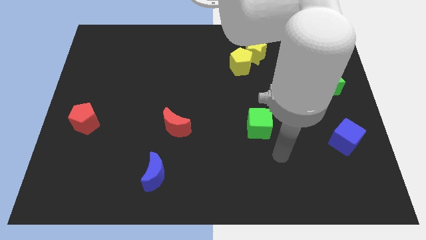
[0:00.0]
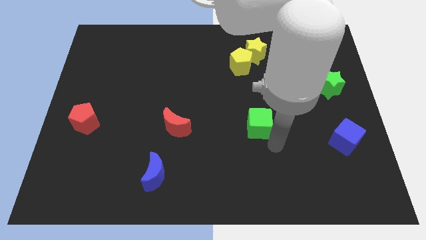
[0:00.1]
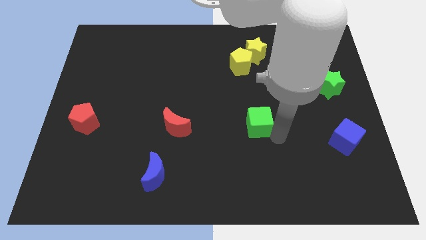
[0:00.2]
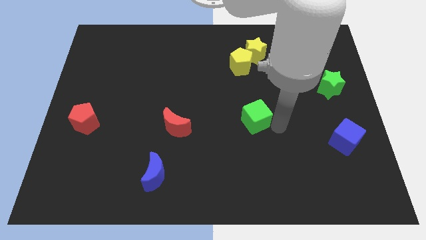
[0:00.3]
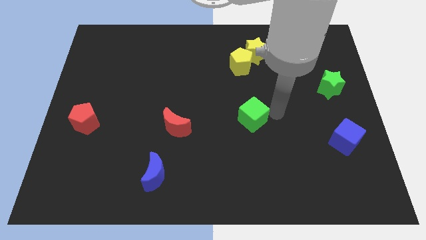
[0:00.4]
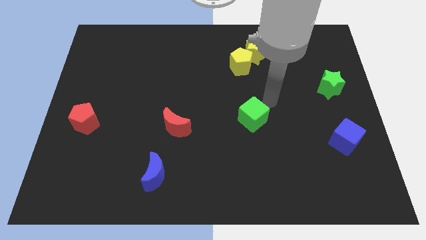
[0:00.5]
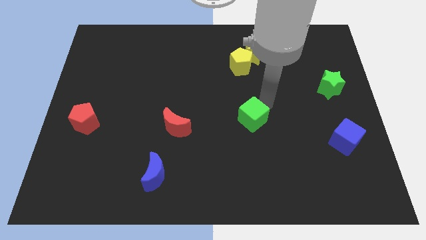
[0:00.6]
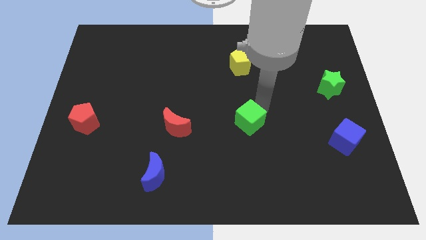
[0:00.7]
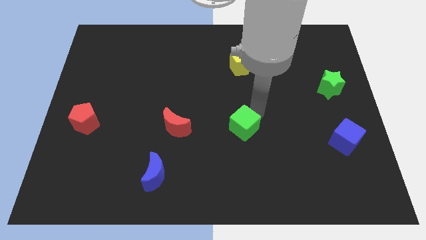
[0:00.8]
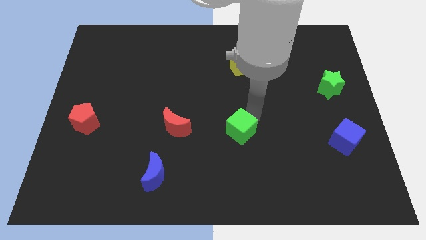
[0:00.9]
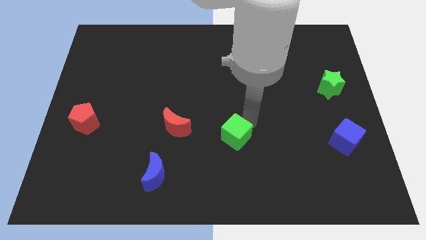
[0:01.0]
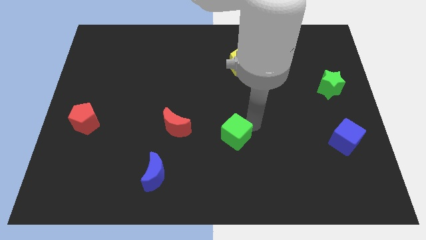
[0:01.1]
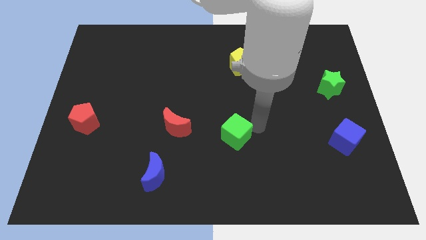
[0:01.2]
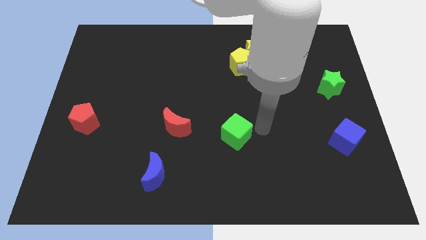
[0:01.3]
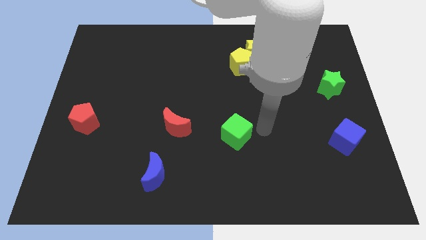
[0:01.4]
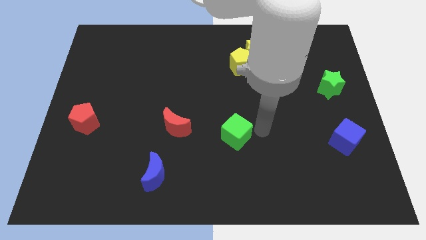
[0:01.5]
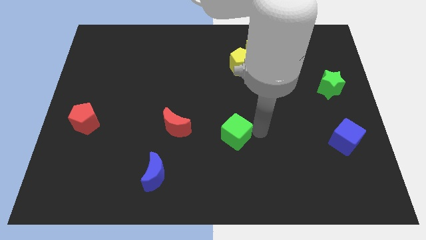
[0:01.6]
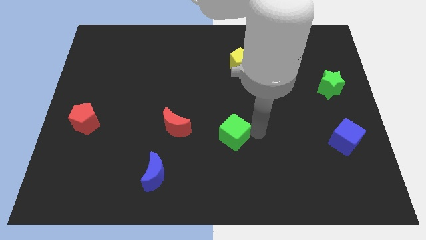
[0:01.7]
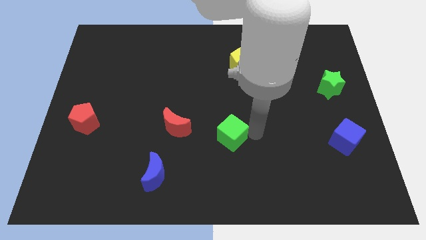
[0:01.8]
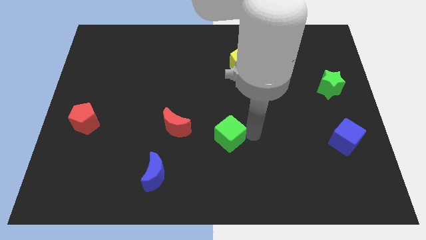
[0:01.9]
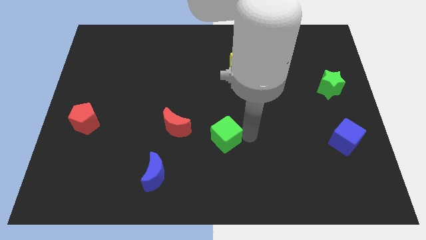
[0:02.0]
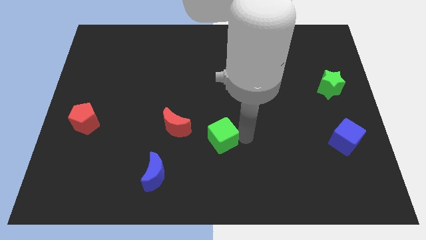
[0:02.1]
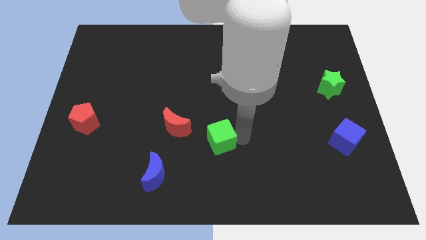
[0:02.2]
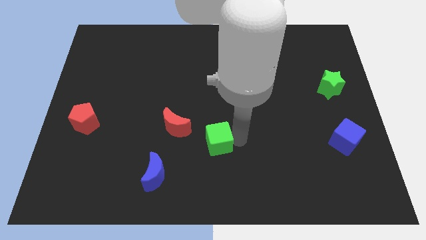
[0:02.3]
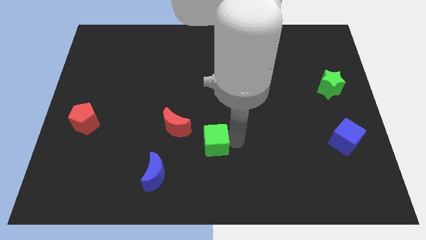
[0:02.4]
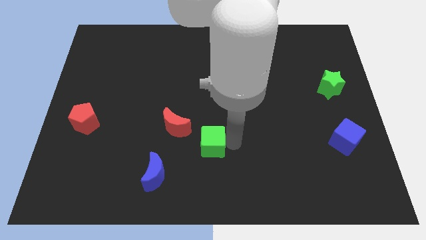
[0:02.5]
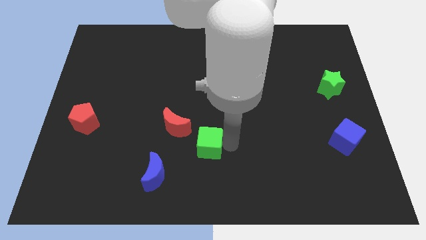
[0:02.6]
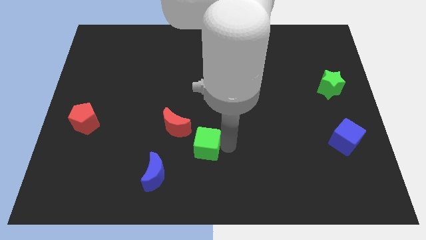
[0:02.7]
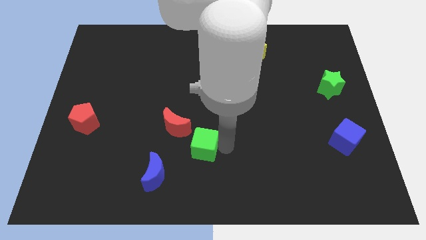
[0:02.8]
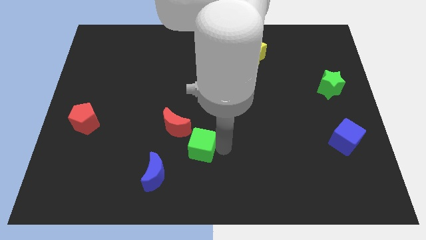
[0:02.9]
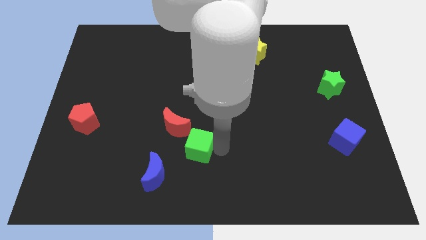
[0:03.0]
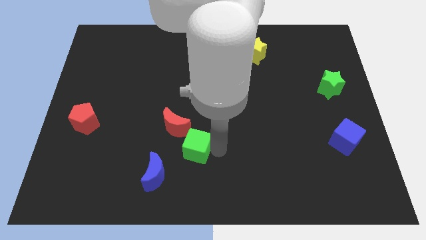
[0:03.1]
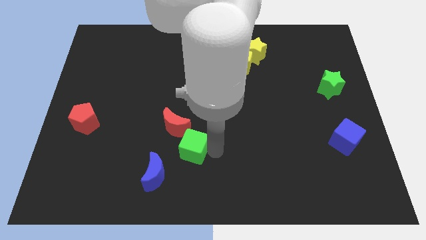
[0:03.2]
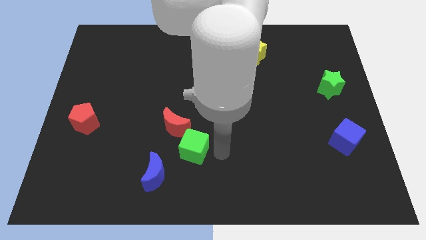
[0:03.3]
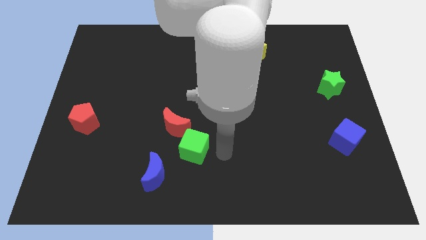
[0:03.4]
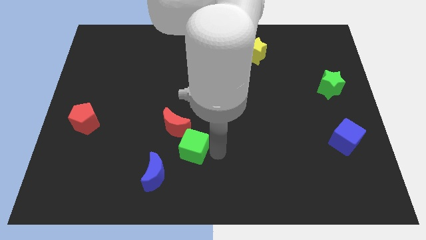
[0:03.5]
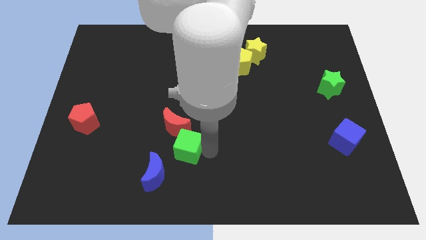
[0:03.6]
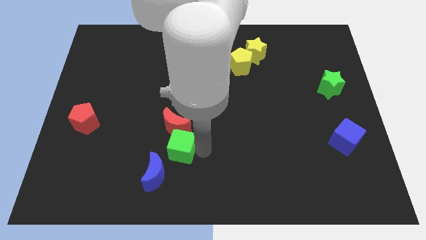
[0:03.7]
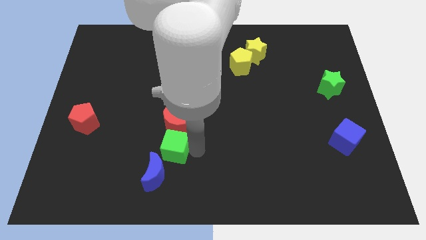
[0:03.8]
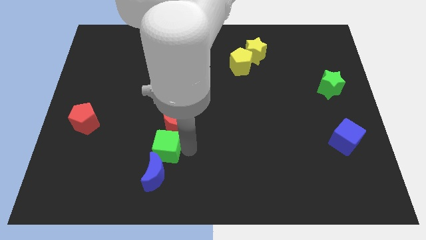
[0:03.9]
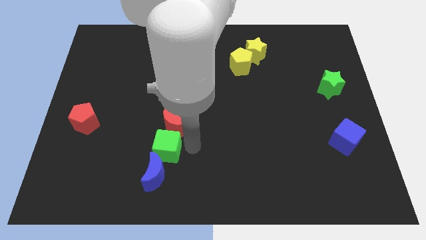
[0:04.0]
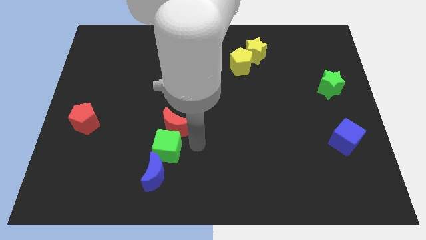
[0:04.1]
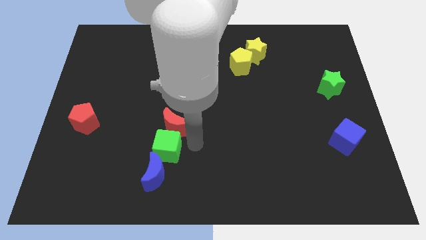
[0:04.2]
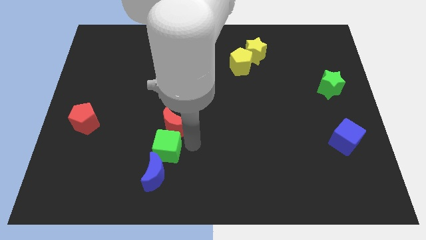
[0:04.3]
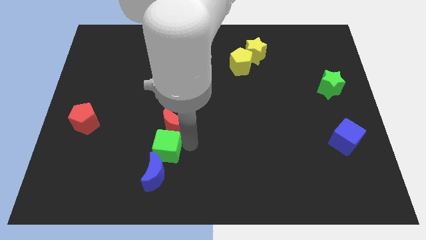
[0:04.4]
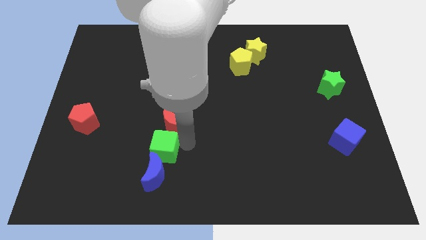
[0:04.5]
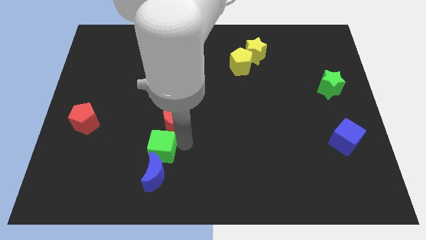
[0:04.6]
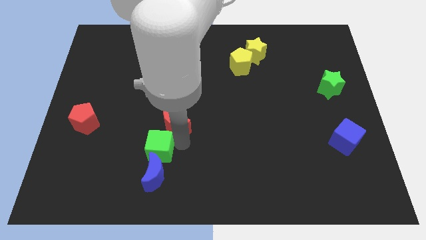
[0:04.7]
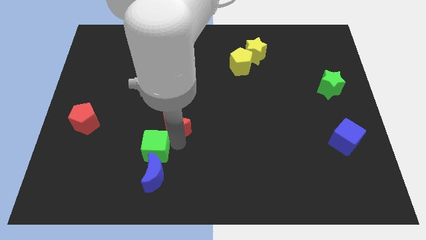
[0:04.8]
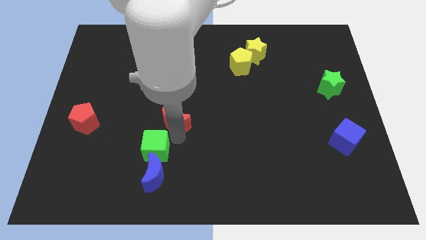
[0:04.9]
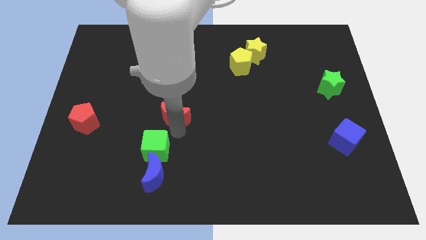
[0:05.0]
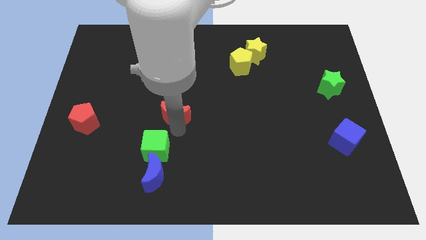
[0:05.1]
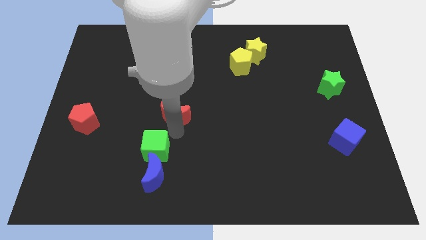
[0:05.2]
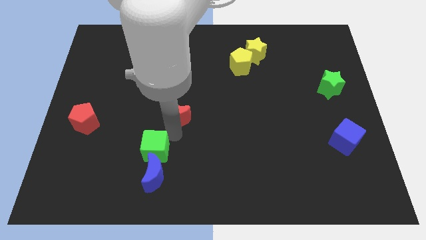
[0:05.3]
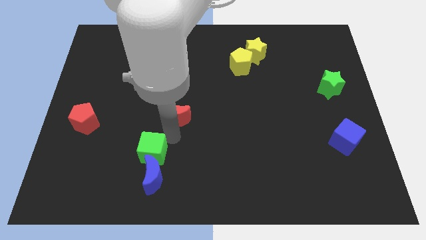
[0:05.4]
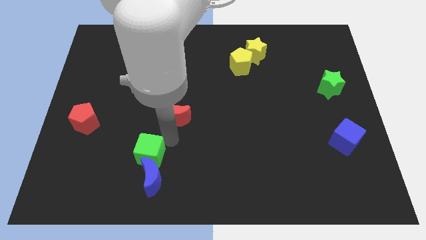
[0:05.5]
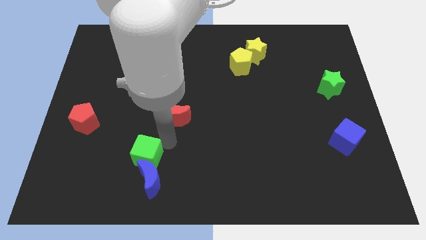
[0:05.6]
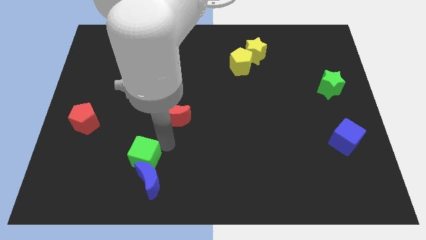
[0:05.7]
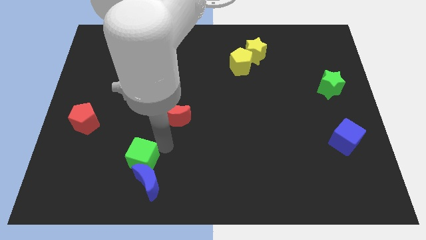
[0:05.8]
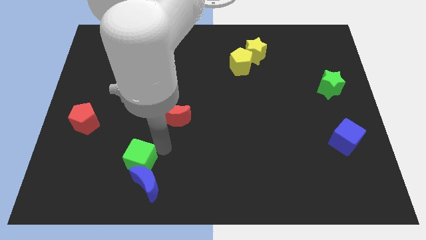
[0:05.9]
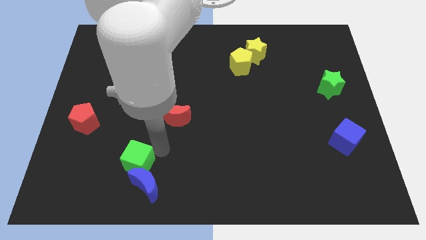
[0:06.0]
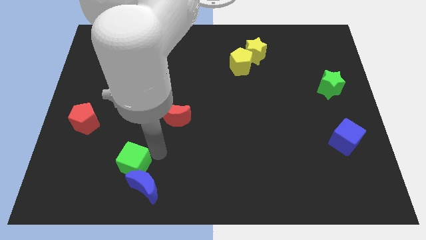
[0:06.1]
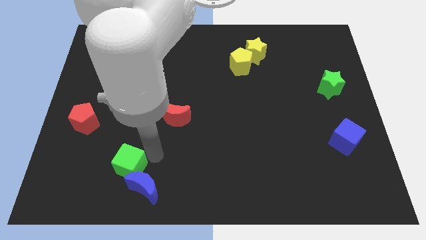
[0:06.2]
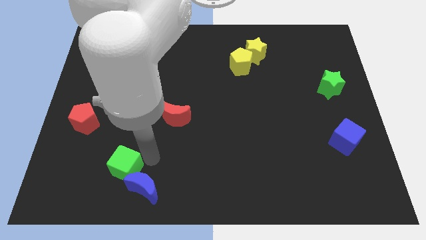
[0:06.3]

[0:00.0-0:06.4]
slide the green cube to the left of the blue moon

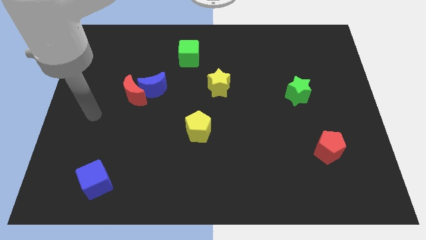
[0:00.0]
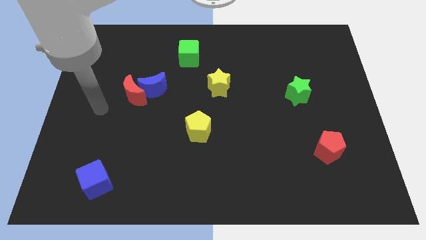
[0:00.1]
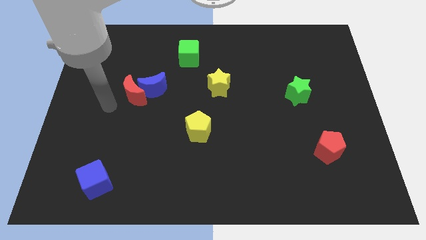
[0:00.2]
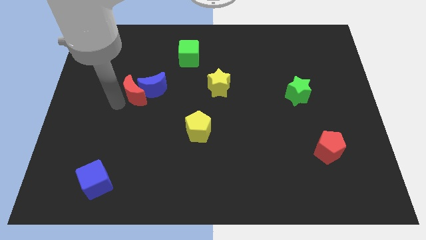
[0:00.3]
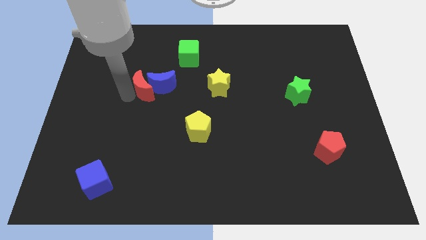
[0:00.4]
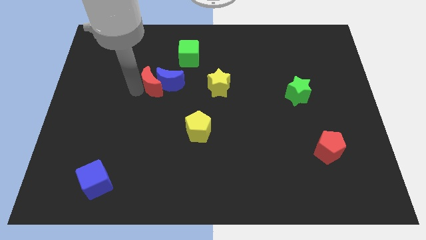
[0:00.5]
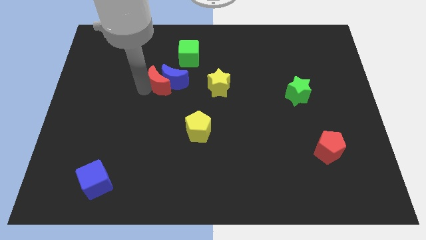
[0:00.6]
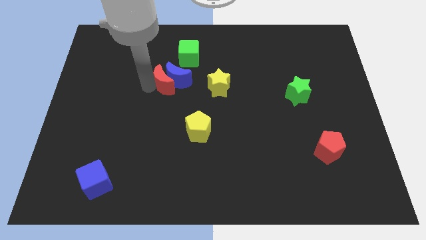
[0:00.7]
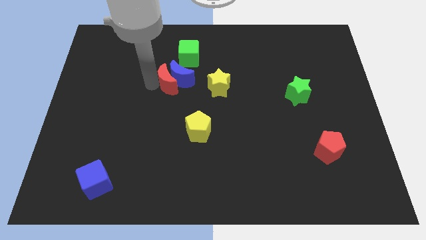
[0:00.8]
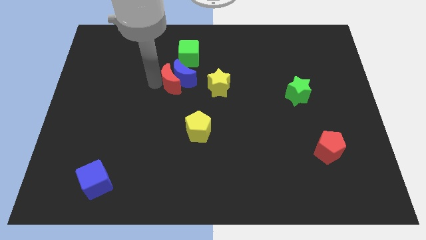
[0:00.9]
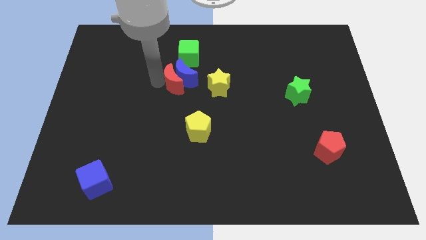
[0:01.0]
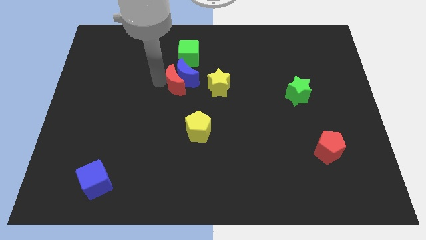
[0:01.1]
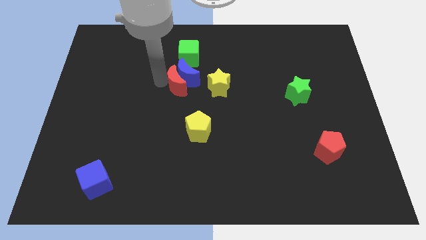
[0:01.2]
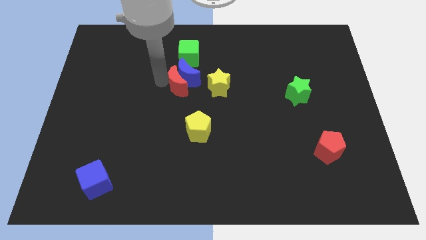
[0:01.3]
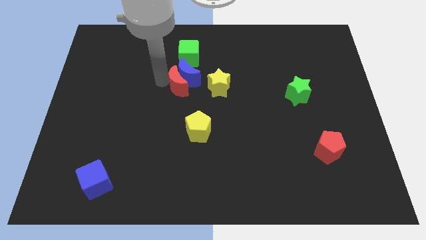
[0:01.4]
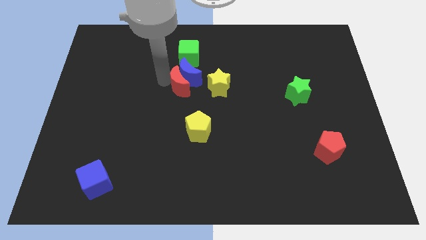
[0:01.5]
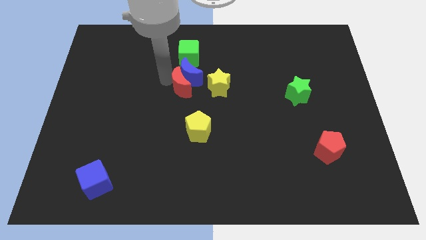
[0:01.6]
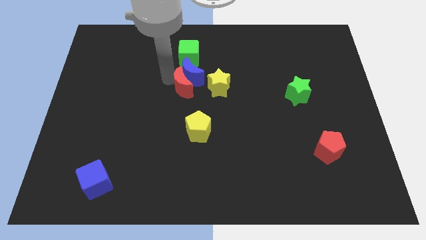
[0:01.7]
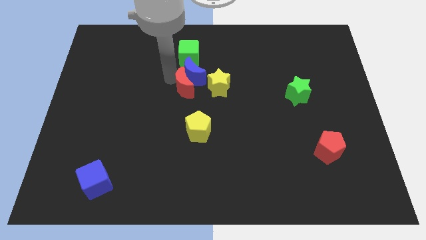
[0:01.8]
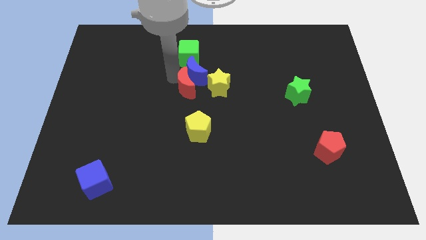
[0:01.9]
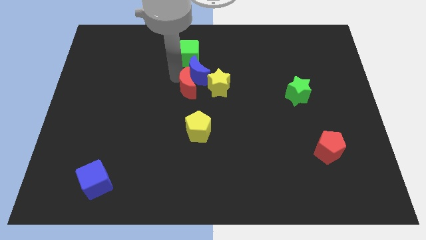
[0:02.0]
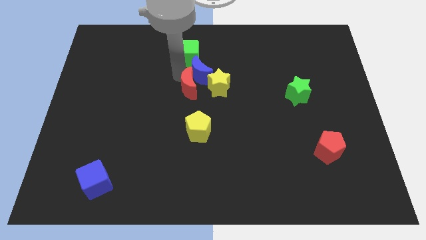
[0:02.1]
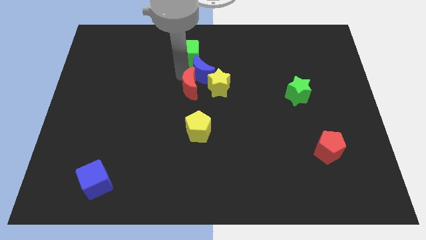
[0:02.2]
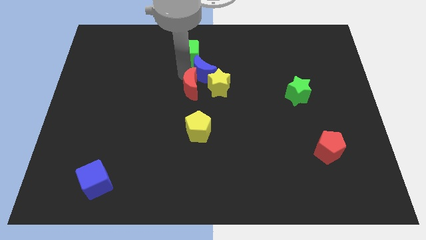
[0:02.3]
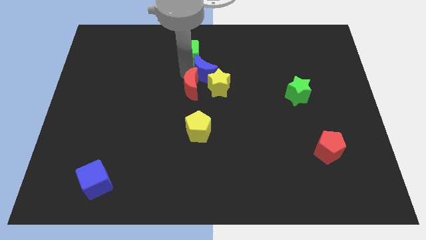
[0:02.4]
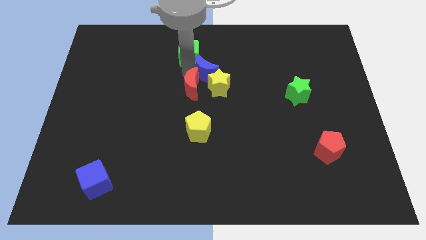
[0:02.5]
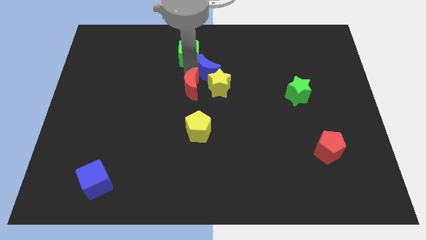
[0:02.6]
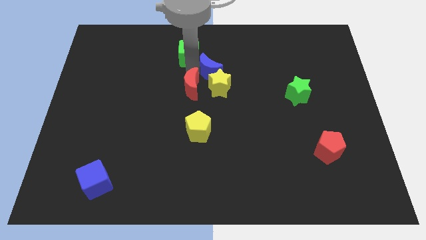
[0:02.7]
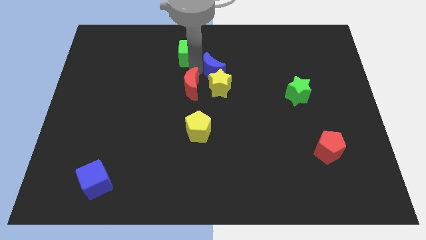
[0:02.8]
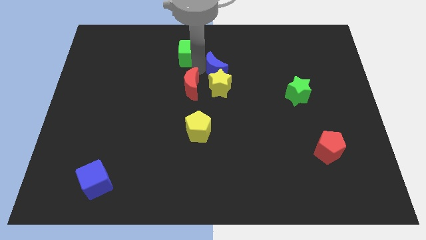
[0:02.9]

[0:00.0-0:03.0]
slide the blue moon to the top right side of the yellow star
